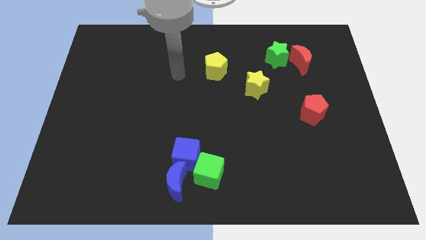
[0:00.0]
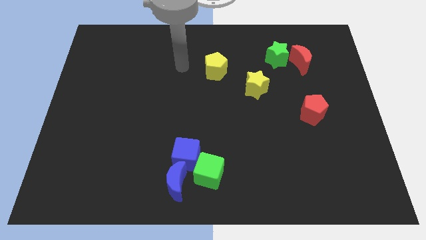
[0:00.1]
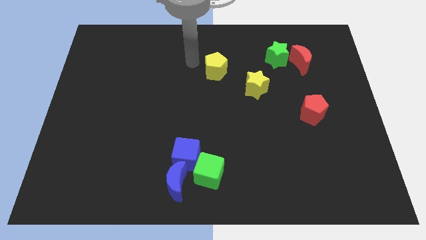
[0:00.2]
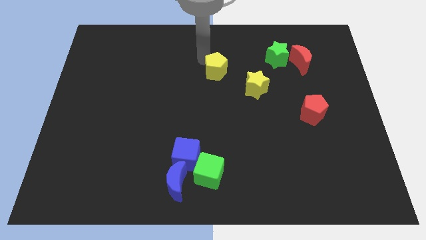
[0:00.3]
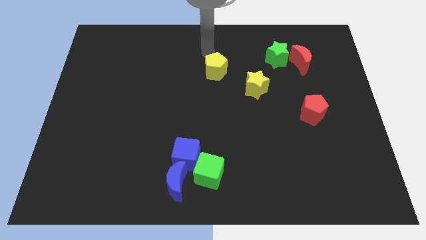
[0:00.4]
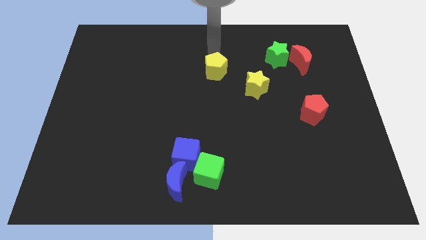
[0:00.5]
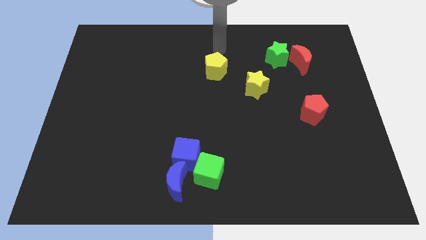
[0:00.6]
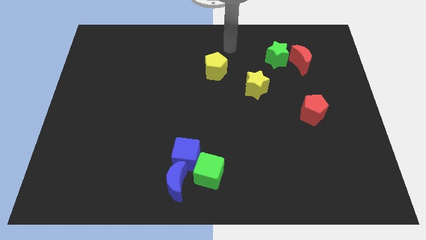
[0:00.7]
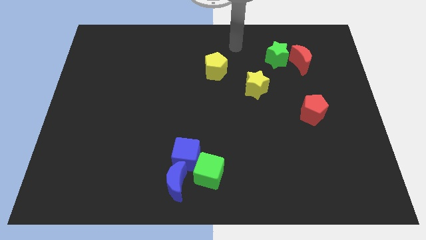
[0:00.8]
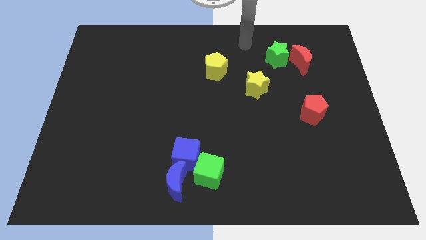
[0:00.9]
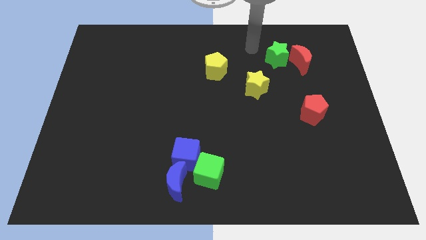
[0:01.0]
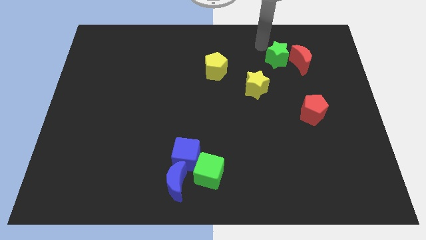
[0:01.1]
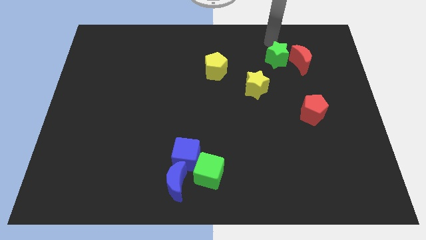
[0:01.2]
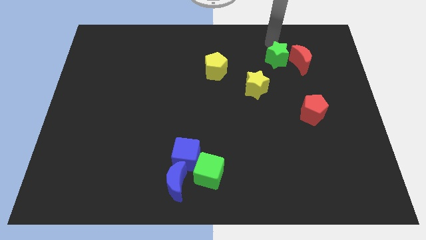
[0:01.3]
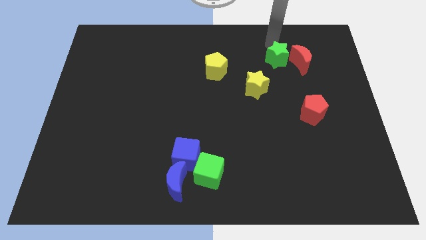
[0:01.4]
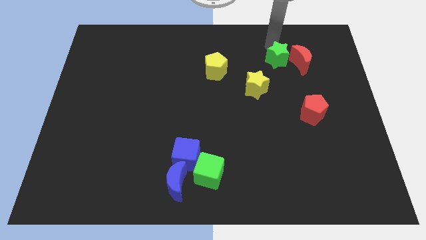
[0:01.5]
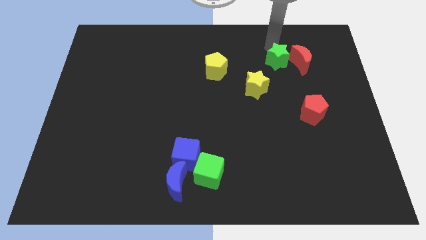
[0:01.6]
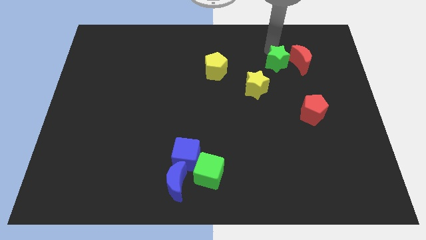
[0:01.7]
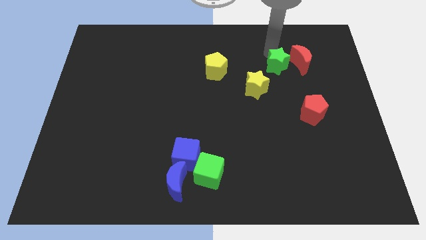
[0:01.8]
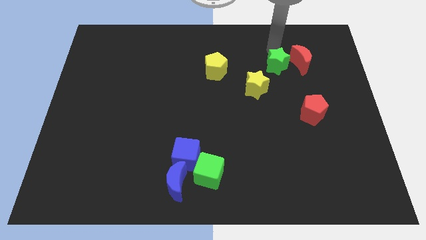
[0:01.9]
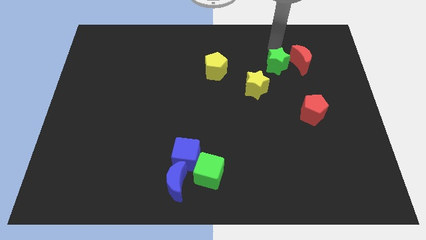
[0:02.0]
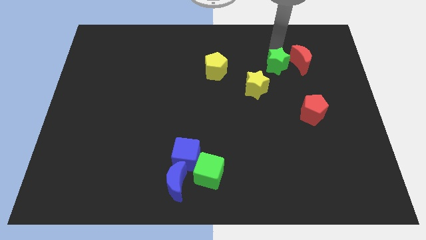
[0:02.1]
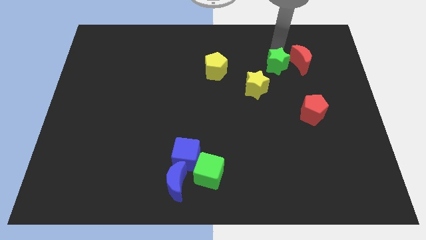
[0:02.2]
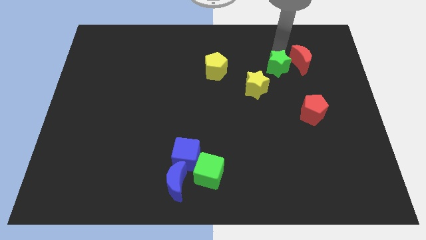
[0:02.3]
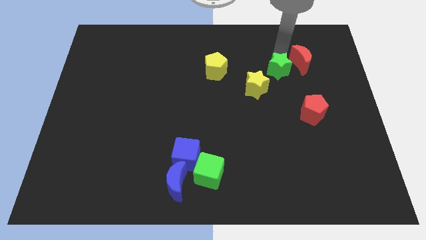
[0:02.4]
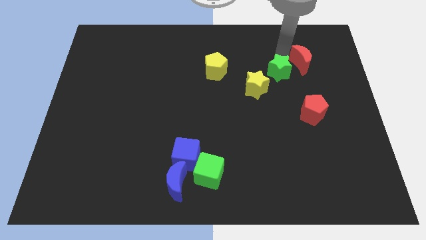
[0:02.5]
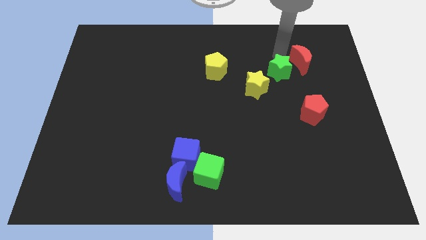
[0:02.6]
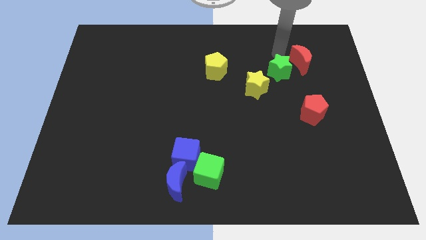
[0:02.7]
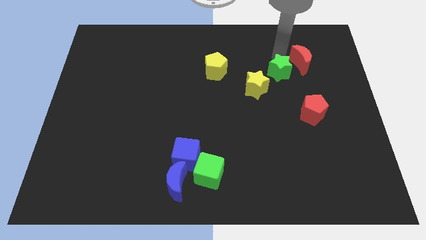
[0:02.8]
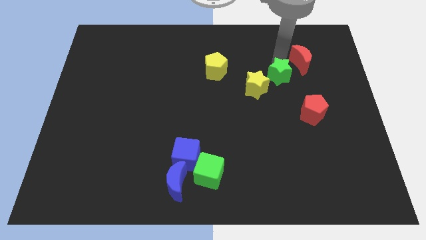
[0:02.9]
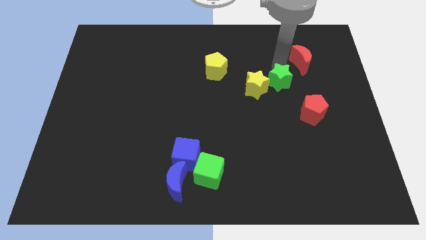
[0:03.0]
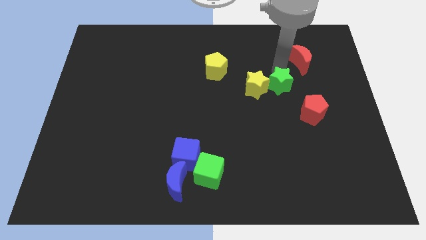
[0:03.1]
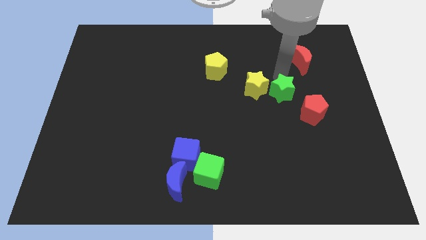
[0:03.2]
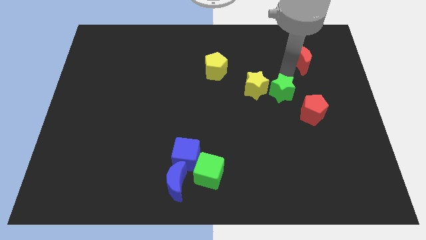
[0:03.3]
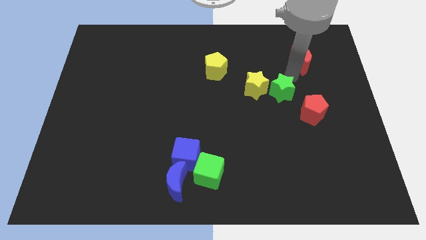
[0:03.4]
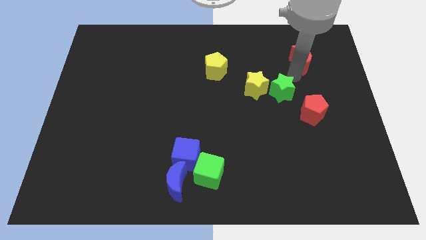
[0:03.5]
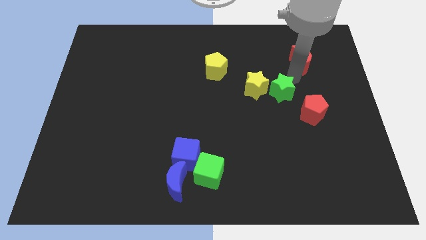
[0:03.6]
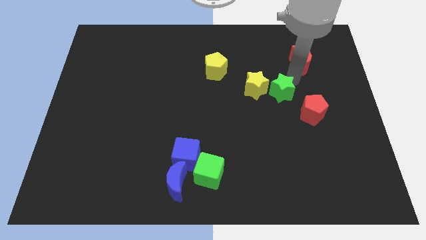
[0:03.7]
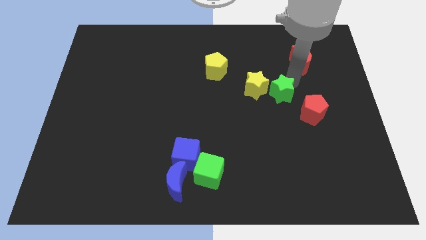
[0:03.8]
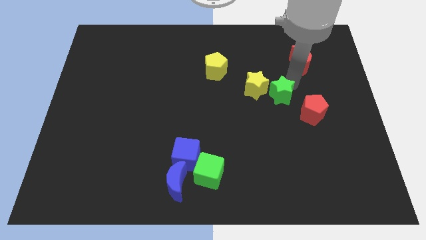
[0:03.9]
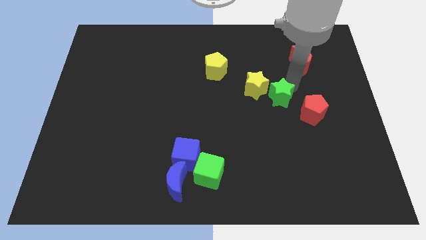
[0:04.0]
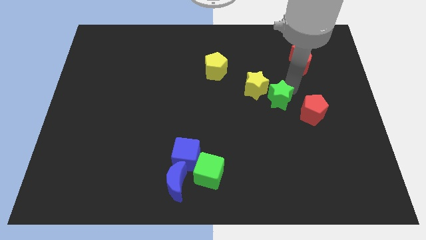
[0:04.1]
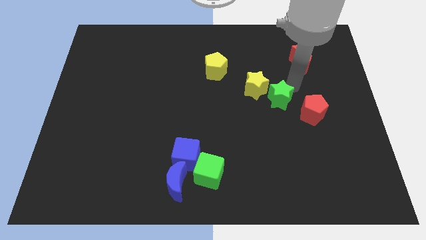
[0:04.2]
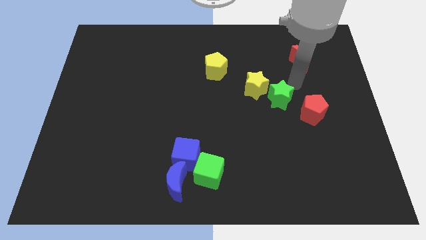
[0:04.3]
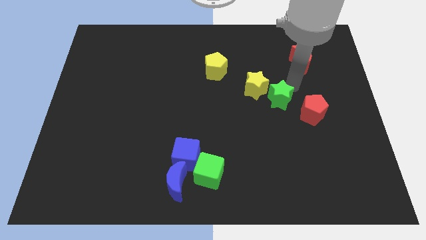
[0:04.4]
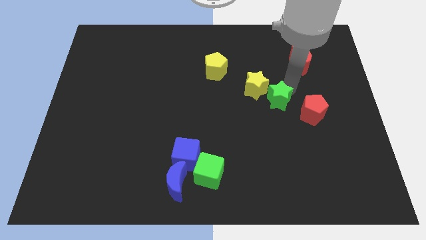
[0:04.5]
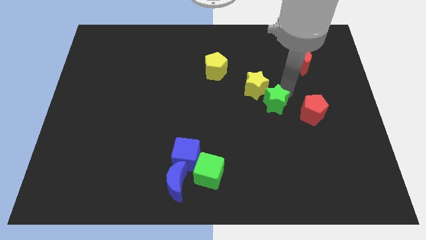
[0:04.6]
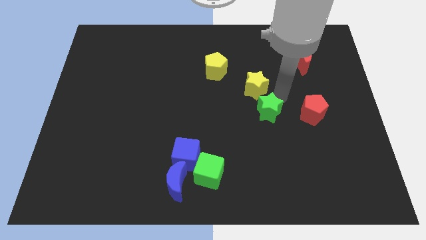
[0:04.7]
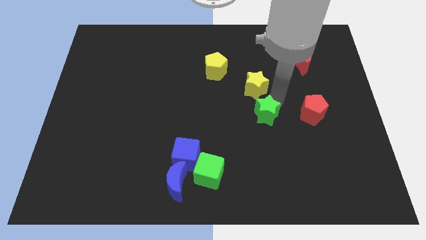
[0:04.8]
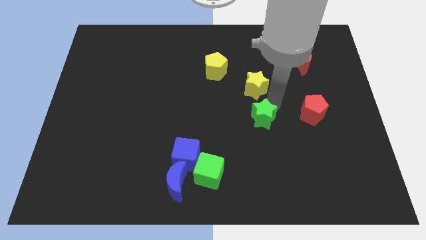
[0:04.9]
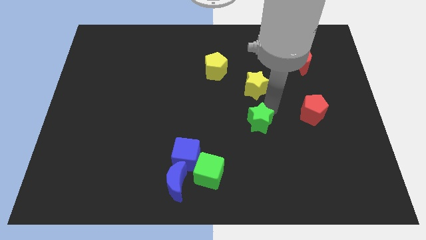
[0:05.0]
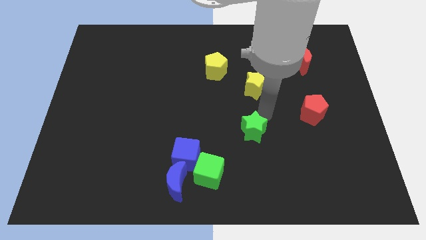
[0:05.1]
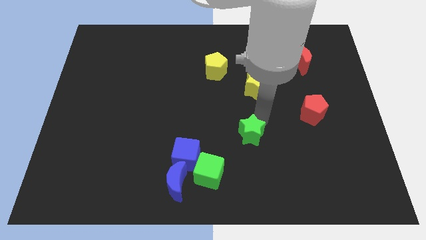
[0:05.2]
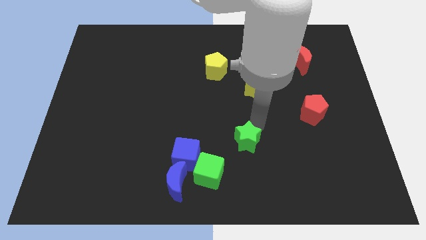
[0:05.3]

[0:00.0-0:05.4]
slide the green star to the top right side of the green cube

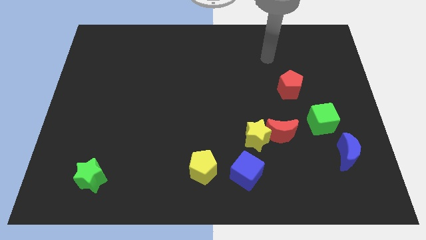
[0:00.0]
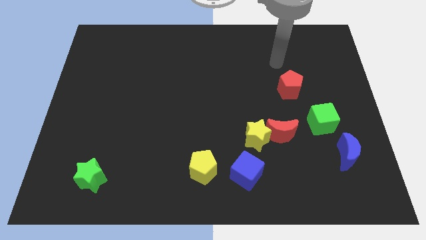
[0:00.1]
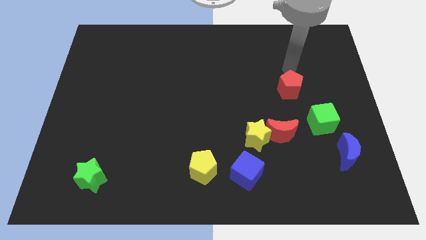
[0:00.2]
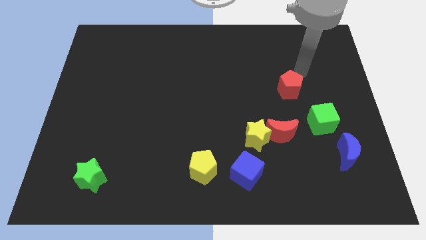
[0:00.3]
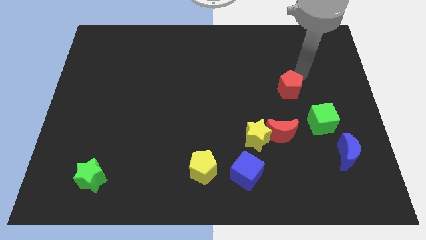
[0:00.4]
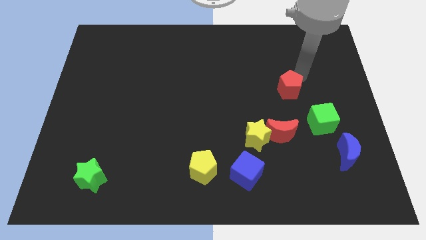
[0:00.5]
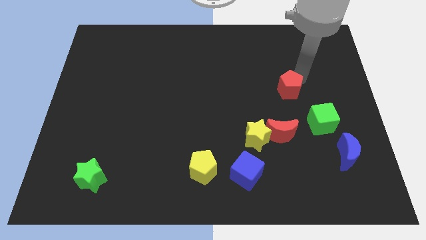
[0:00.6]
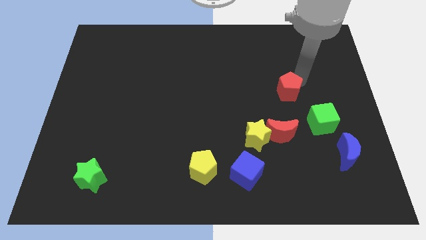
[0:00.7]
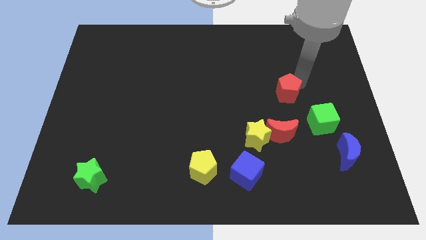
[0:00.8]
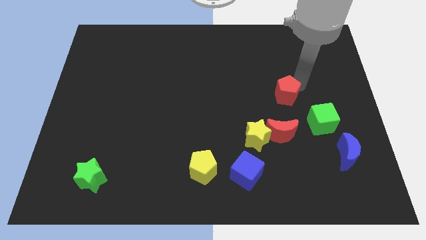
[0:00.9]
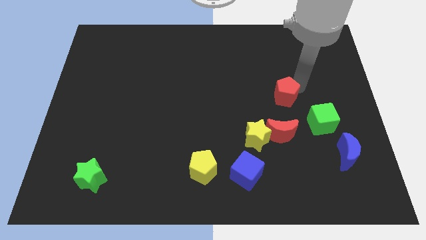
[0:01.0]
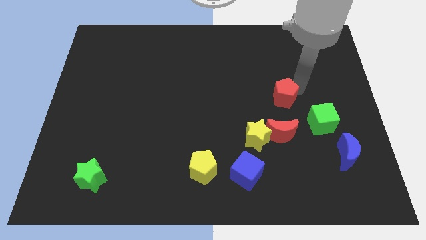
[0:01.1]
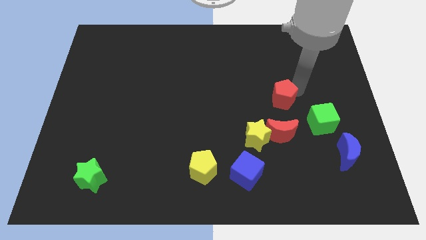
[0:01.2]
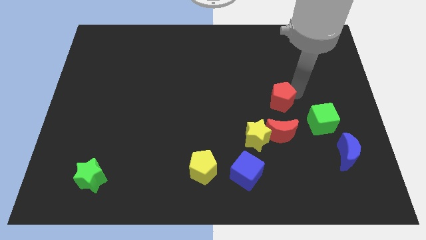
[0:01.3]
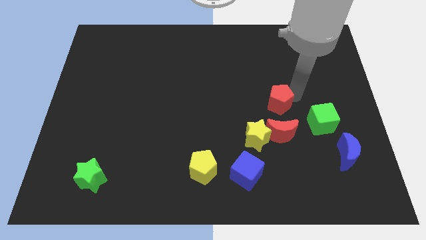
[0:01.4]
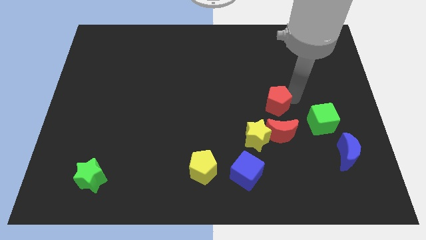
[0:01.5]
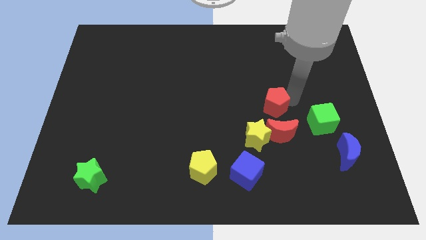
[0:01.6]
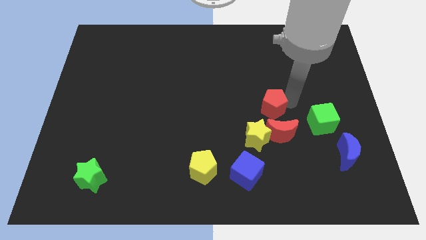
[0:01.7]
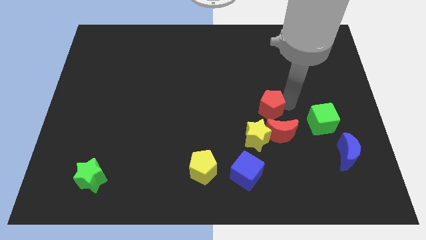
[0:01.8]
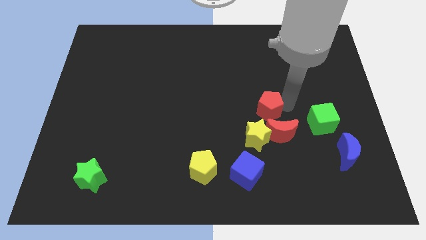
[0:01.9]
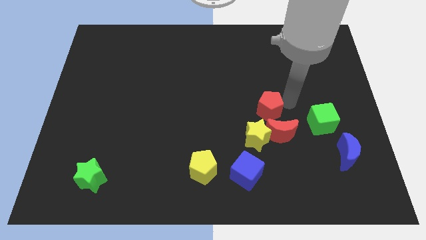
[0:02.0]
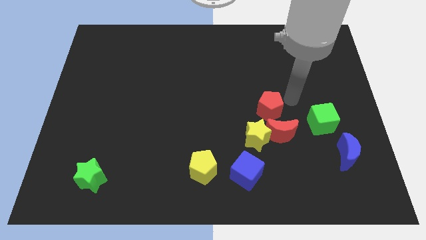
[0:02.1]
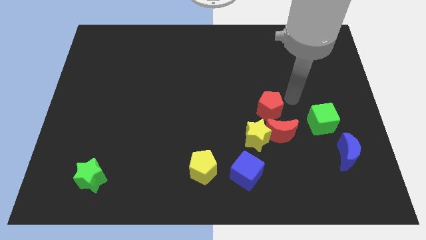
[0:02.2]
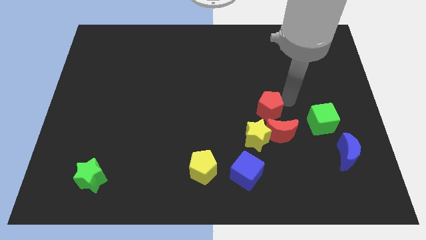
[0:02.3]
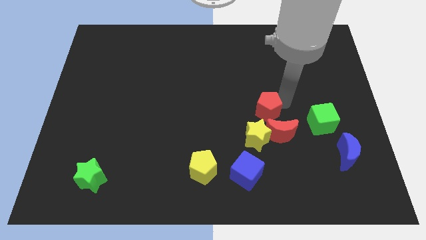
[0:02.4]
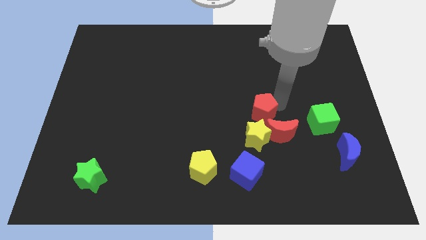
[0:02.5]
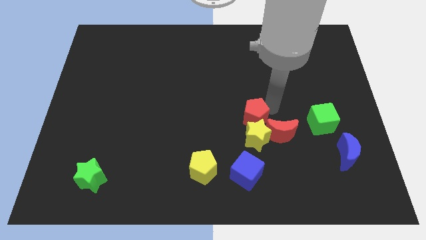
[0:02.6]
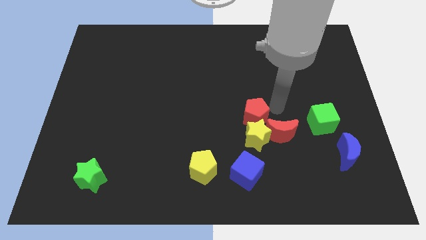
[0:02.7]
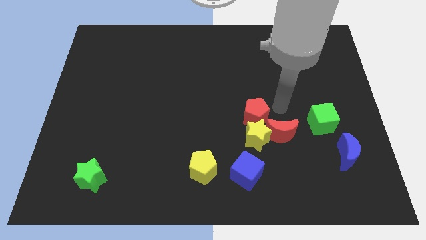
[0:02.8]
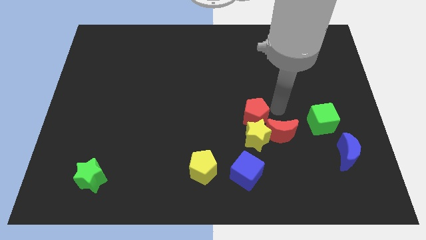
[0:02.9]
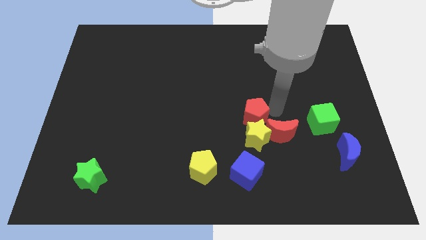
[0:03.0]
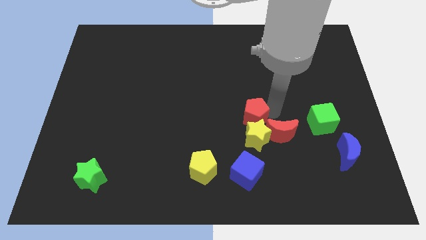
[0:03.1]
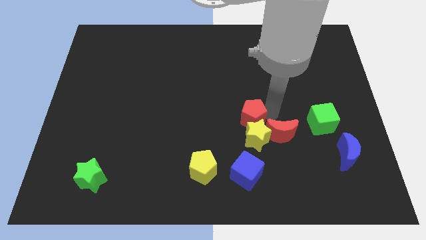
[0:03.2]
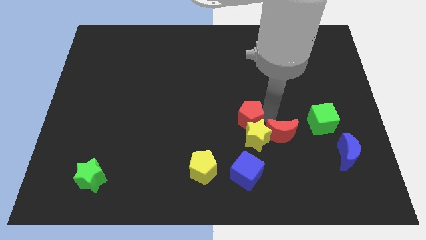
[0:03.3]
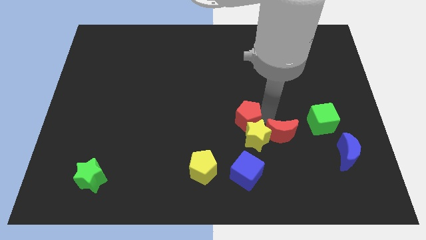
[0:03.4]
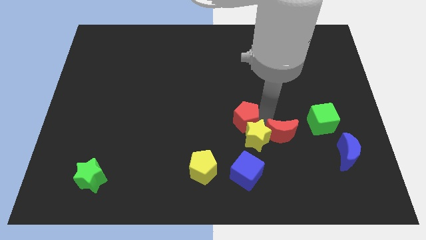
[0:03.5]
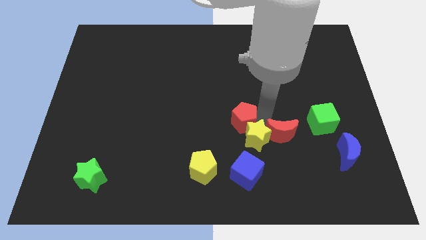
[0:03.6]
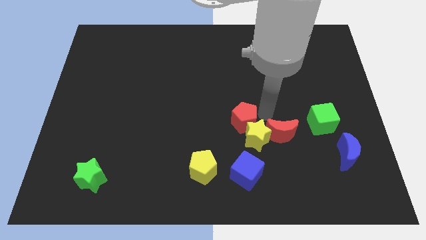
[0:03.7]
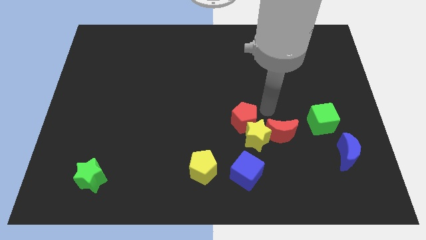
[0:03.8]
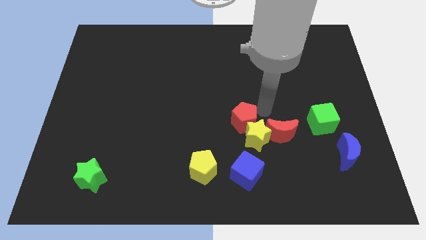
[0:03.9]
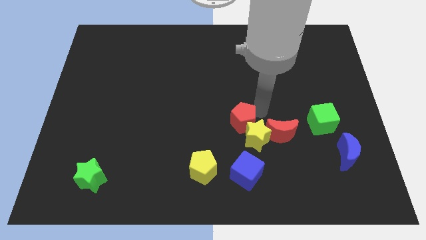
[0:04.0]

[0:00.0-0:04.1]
push the red pentagon just left of the yellow star
